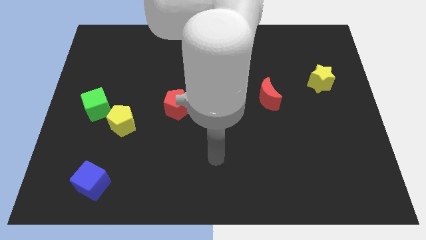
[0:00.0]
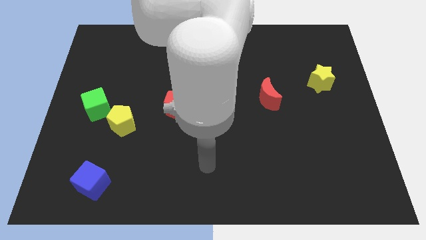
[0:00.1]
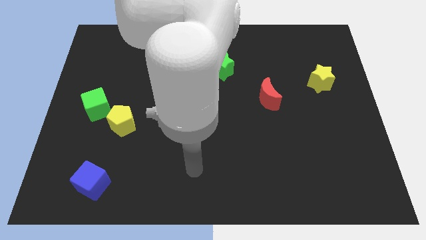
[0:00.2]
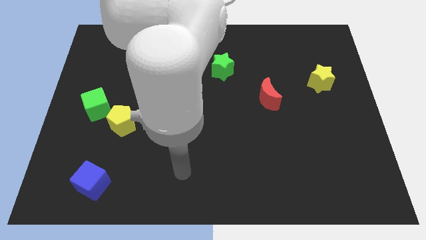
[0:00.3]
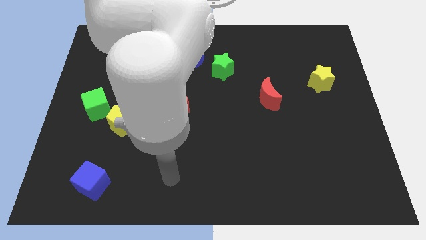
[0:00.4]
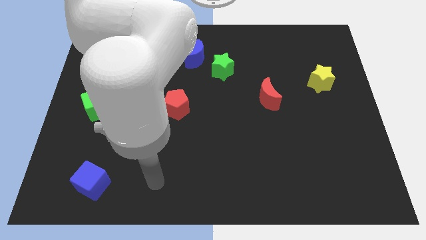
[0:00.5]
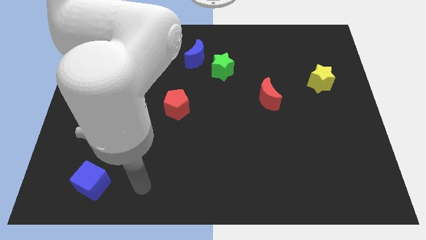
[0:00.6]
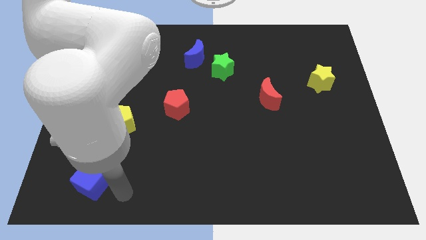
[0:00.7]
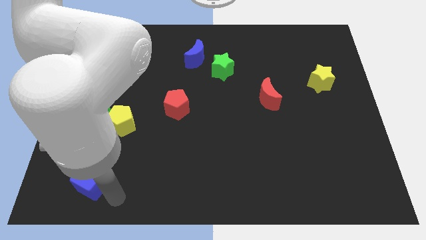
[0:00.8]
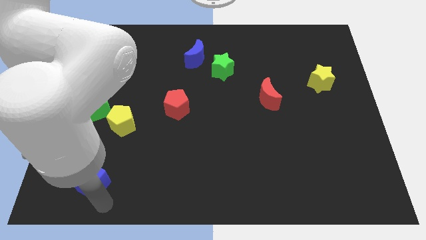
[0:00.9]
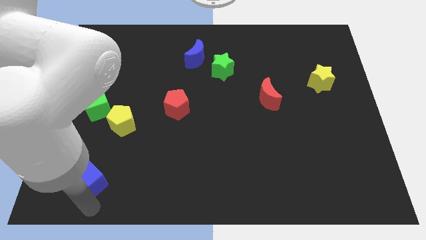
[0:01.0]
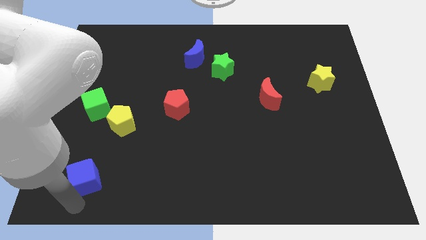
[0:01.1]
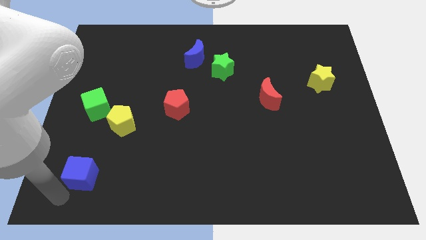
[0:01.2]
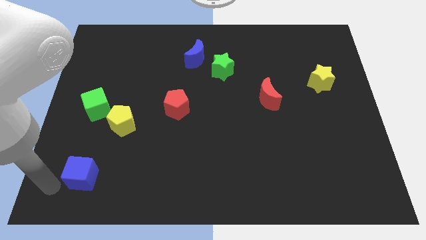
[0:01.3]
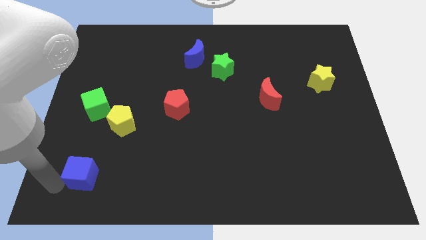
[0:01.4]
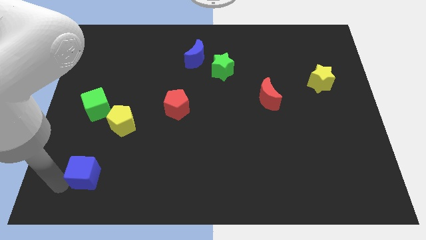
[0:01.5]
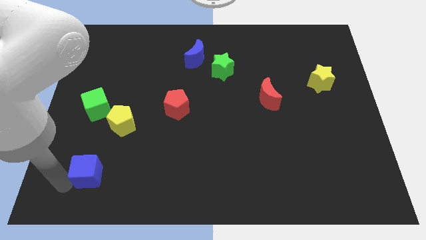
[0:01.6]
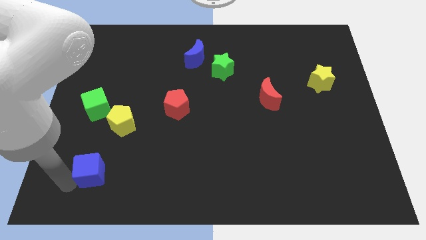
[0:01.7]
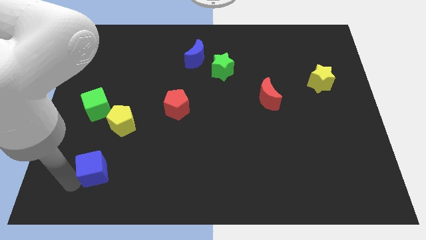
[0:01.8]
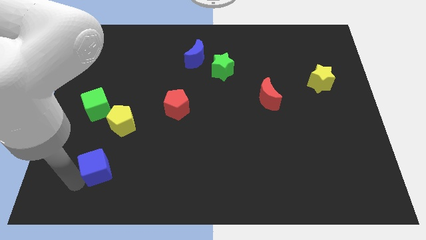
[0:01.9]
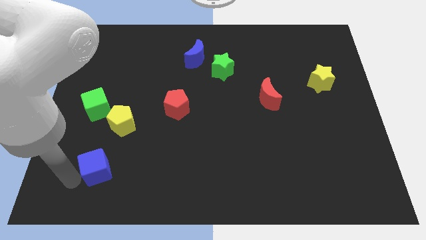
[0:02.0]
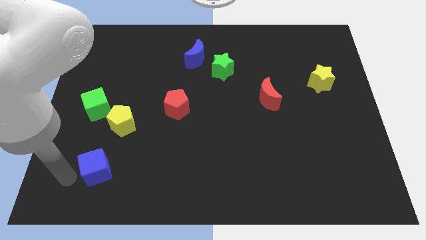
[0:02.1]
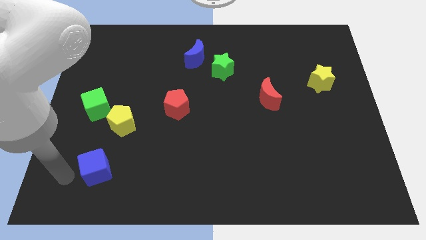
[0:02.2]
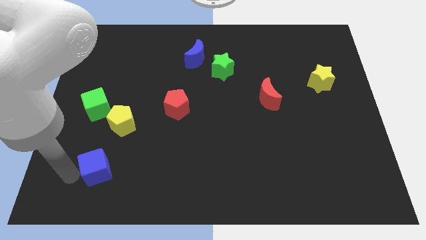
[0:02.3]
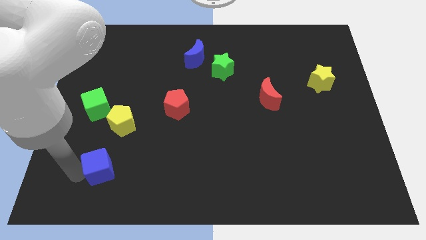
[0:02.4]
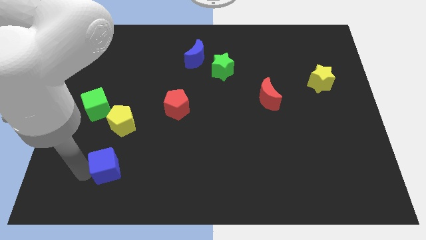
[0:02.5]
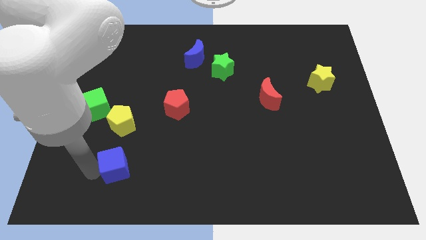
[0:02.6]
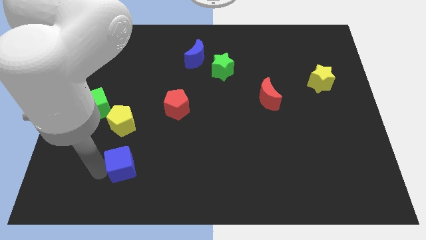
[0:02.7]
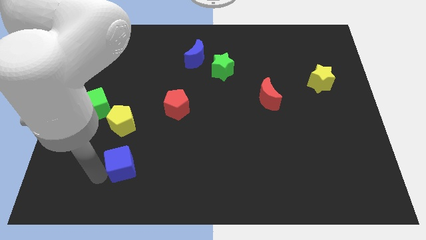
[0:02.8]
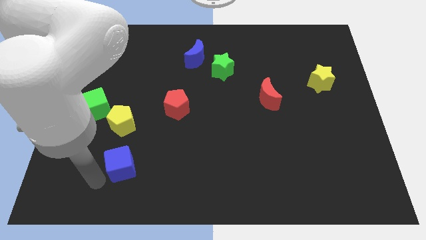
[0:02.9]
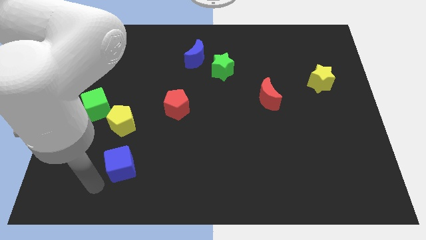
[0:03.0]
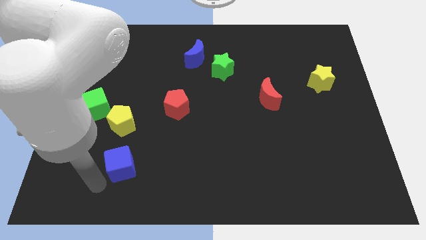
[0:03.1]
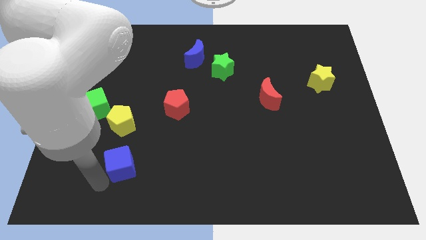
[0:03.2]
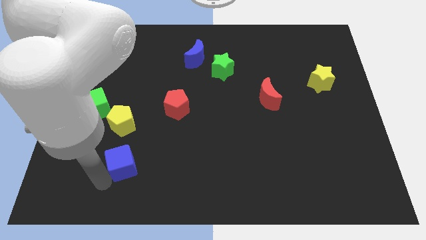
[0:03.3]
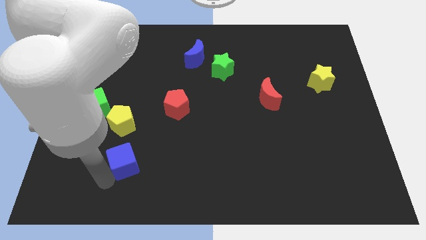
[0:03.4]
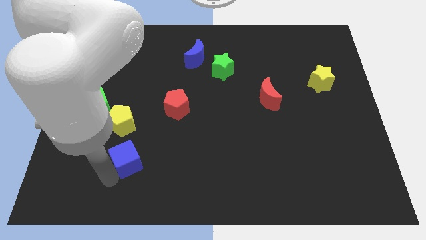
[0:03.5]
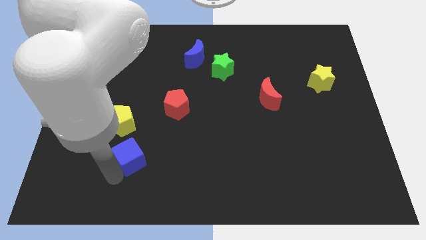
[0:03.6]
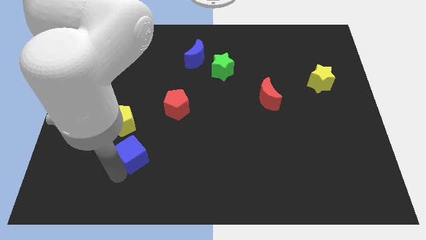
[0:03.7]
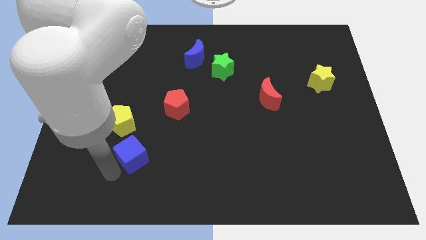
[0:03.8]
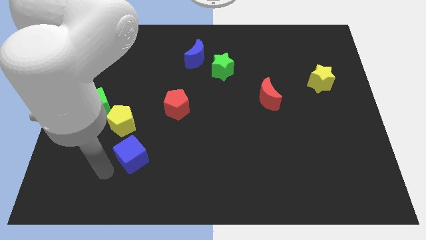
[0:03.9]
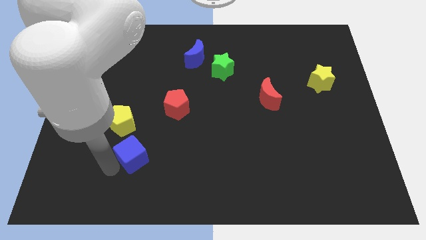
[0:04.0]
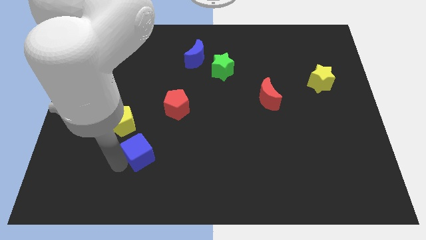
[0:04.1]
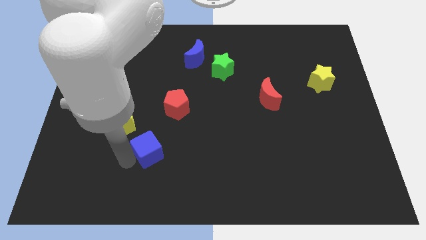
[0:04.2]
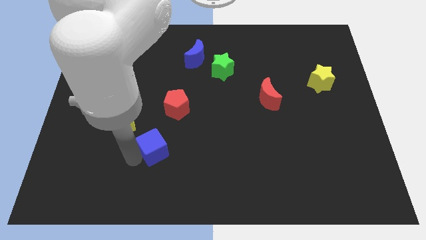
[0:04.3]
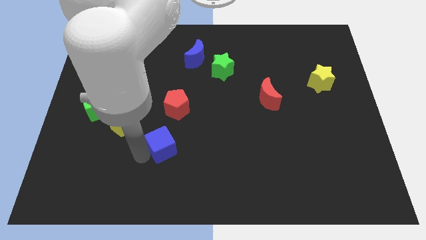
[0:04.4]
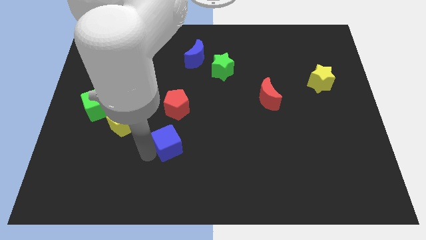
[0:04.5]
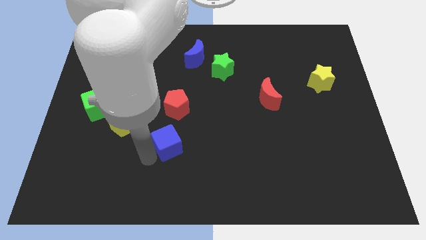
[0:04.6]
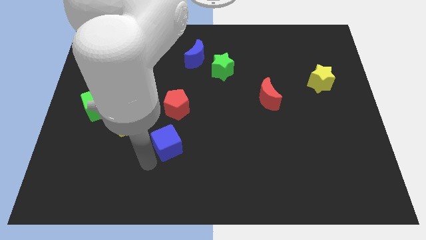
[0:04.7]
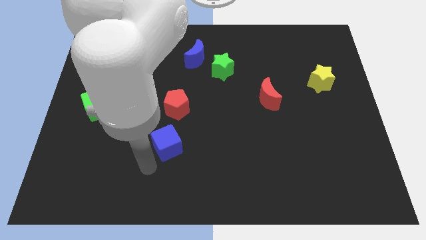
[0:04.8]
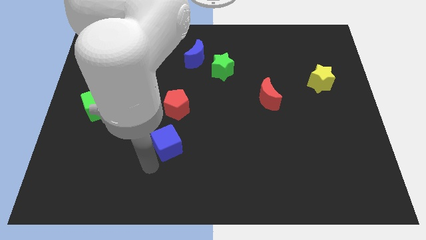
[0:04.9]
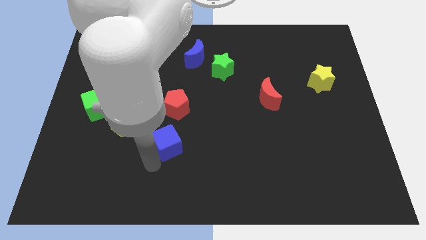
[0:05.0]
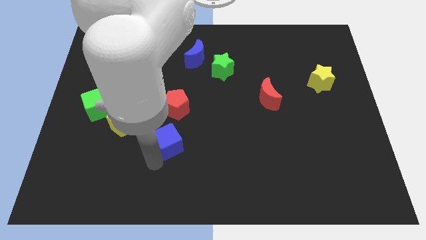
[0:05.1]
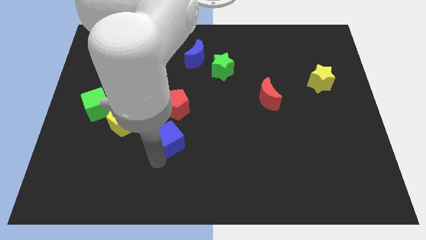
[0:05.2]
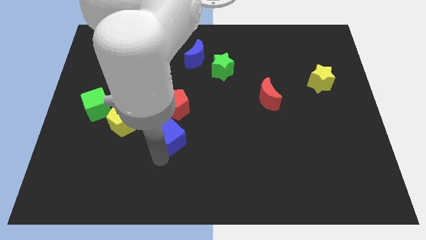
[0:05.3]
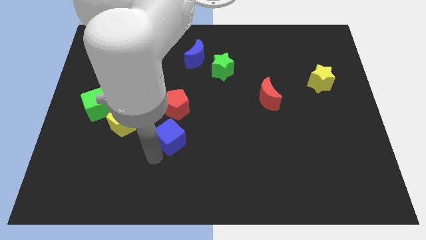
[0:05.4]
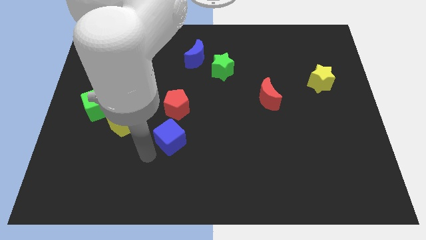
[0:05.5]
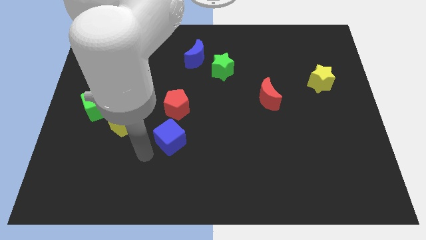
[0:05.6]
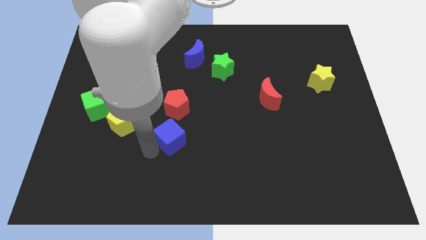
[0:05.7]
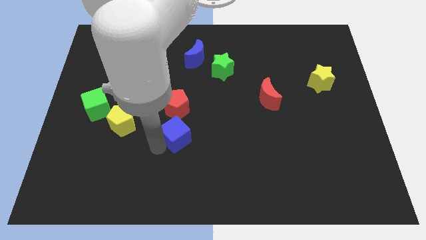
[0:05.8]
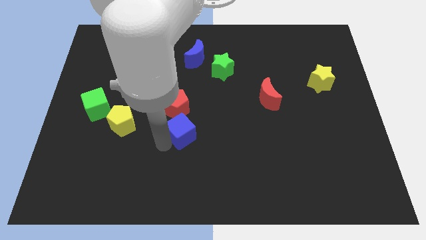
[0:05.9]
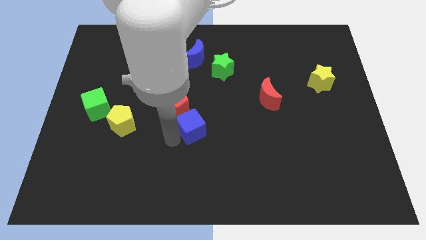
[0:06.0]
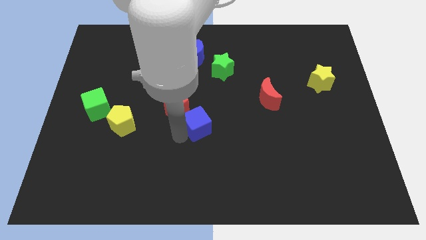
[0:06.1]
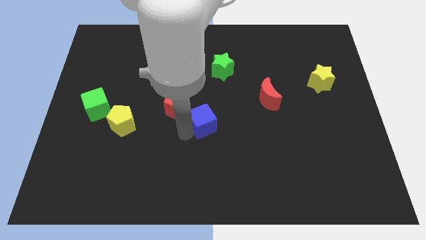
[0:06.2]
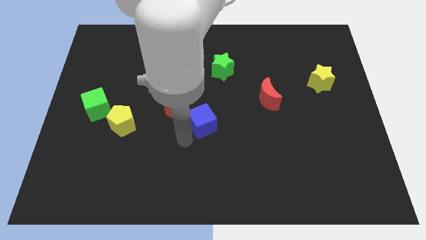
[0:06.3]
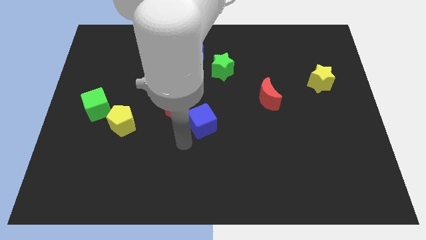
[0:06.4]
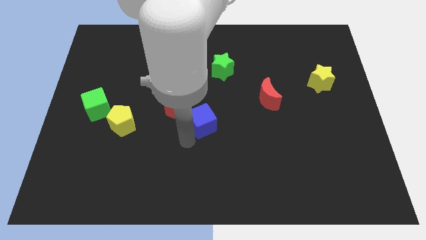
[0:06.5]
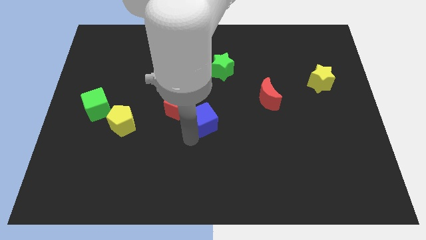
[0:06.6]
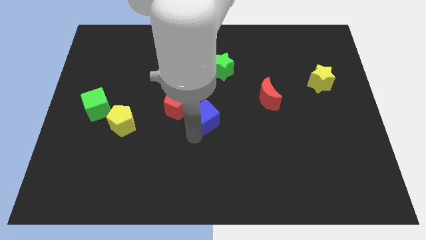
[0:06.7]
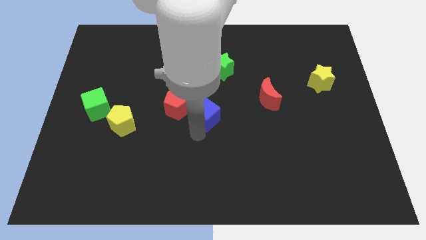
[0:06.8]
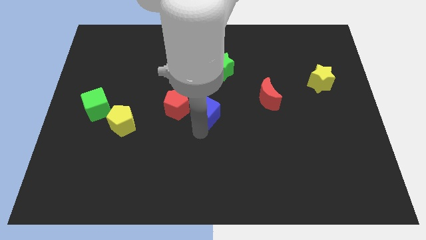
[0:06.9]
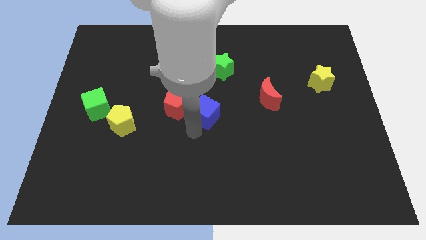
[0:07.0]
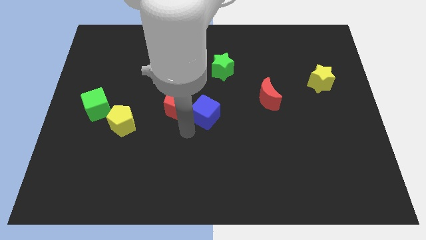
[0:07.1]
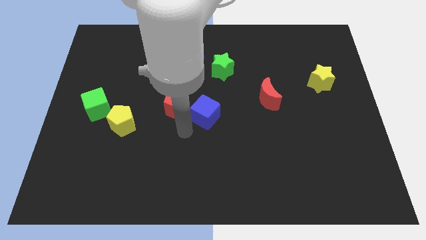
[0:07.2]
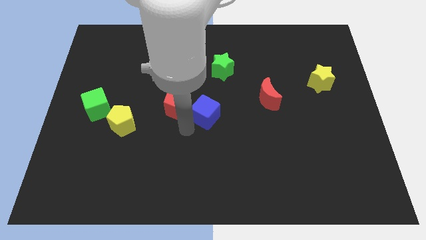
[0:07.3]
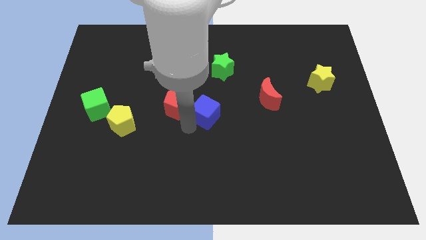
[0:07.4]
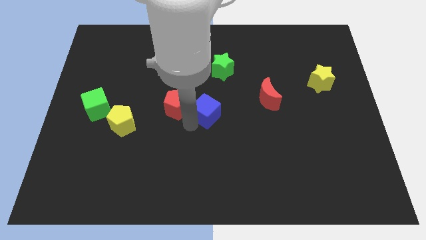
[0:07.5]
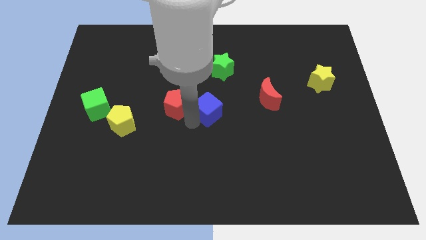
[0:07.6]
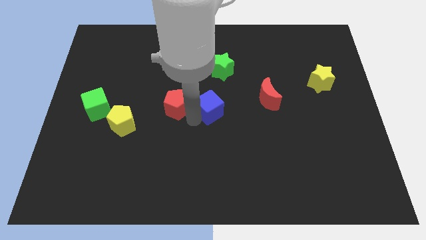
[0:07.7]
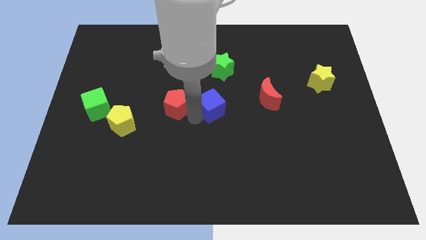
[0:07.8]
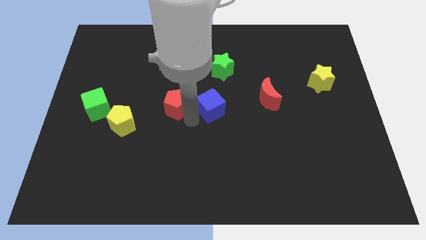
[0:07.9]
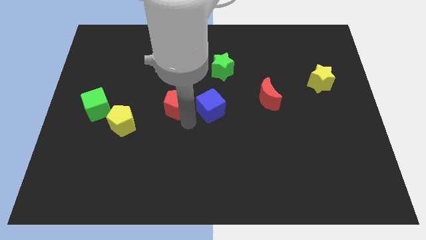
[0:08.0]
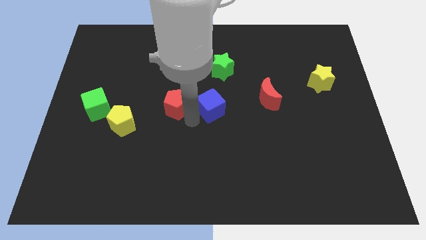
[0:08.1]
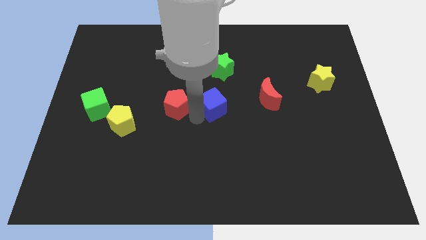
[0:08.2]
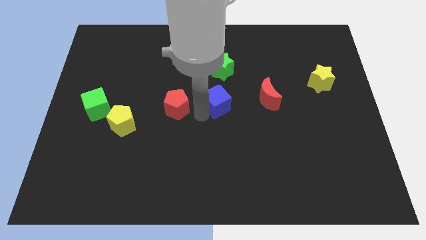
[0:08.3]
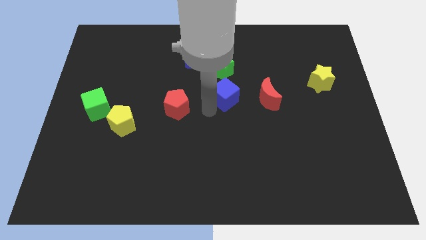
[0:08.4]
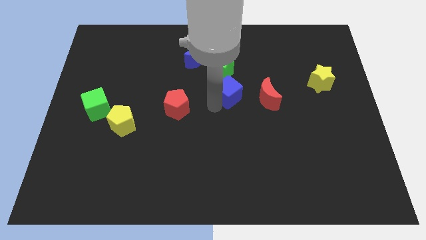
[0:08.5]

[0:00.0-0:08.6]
push the blue cube diagonally down and to the right of the green star
